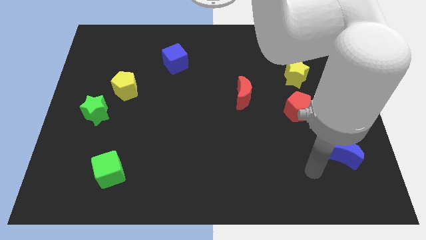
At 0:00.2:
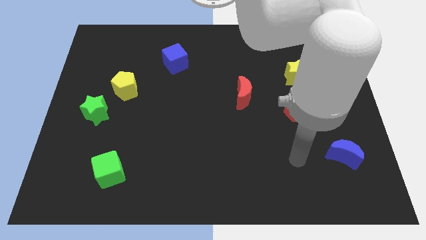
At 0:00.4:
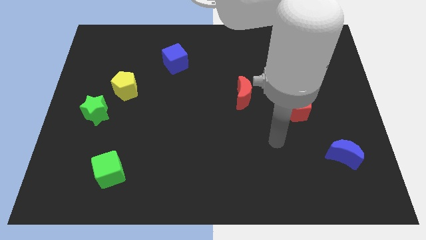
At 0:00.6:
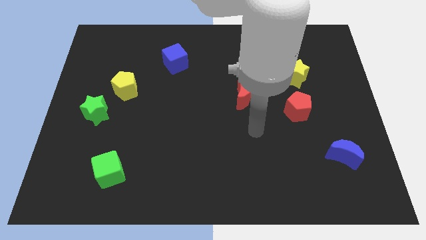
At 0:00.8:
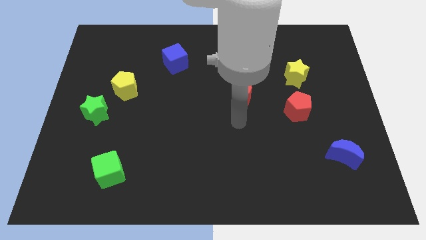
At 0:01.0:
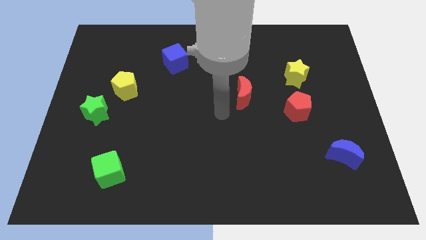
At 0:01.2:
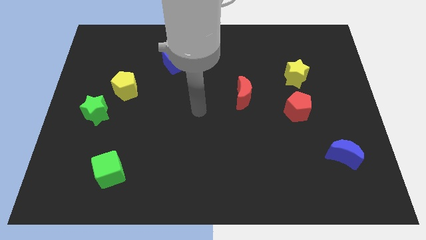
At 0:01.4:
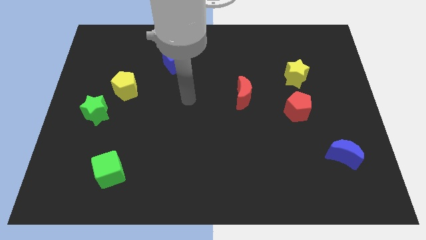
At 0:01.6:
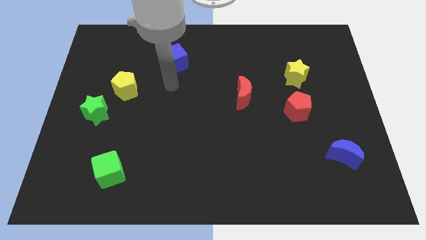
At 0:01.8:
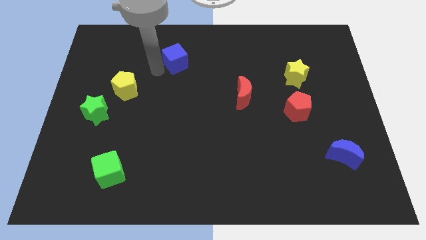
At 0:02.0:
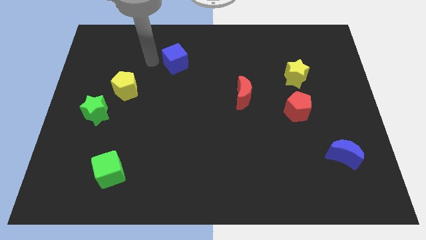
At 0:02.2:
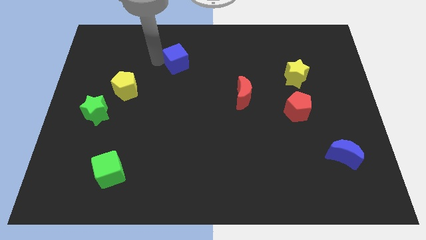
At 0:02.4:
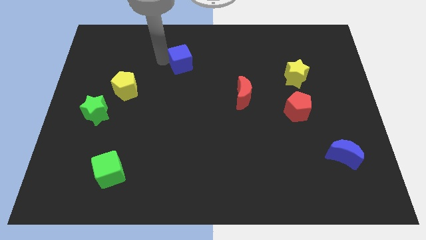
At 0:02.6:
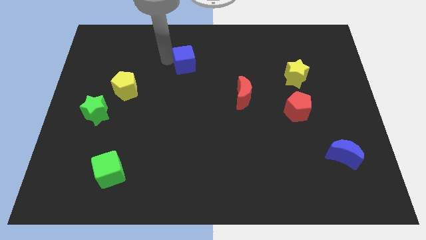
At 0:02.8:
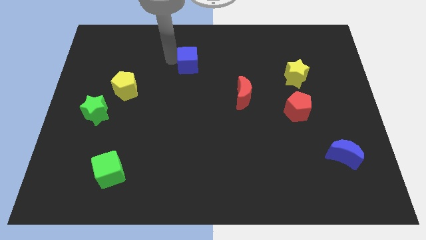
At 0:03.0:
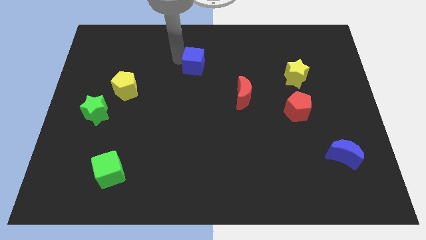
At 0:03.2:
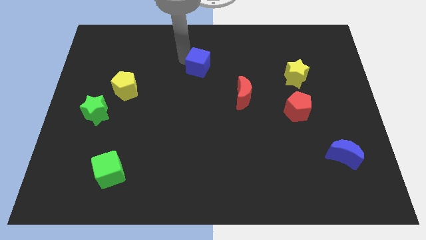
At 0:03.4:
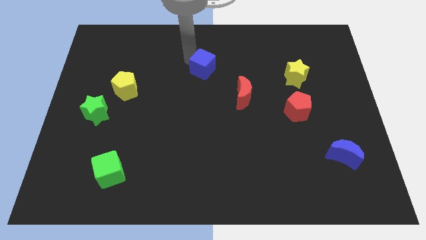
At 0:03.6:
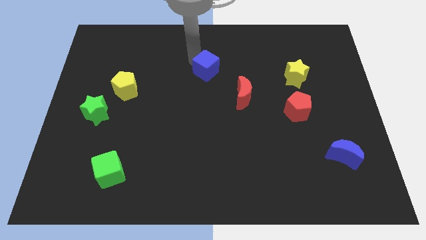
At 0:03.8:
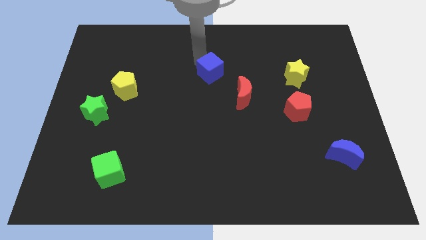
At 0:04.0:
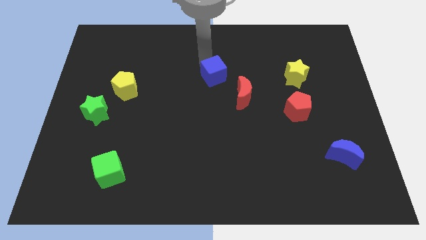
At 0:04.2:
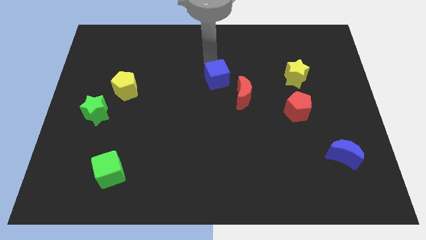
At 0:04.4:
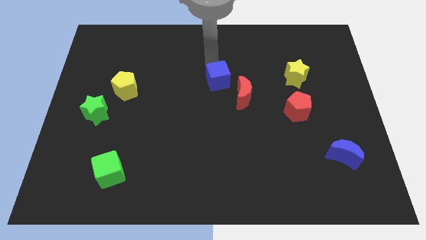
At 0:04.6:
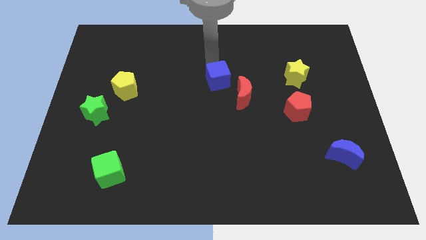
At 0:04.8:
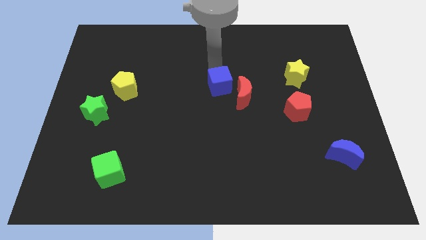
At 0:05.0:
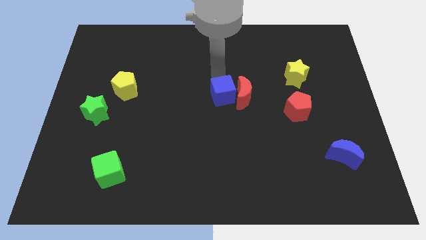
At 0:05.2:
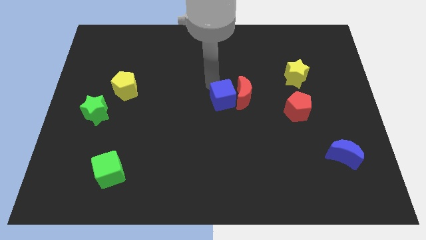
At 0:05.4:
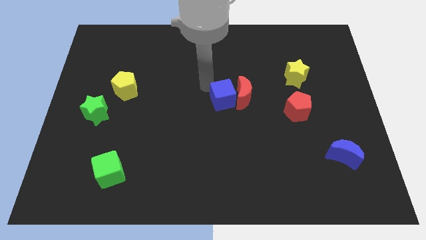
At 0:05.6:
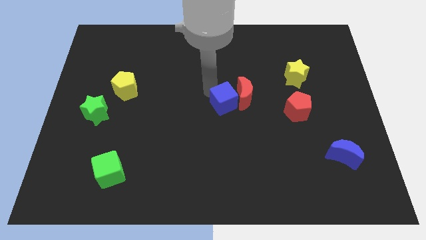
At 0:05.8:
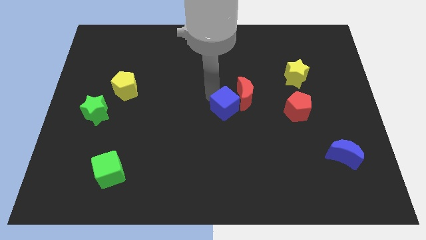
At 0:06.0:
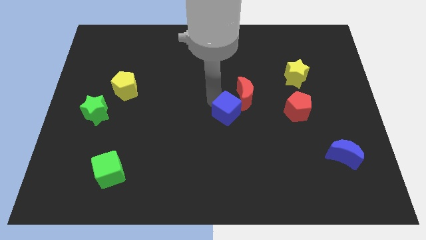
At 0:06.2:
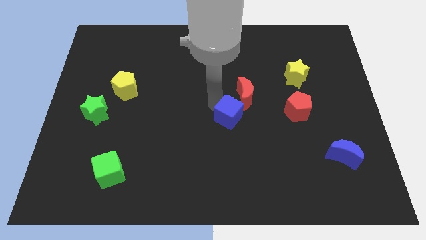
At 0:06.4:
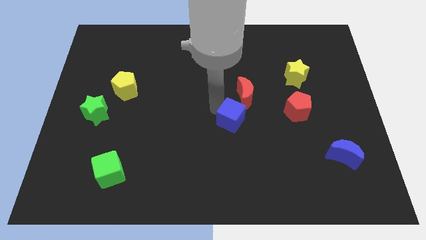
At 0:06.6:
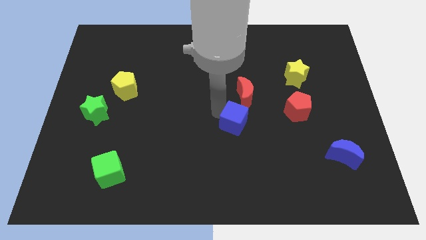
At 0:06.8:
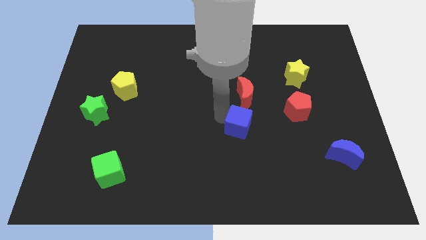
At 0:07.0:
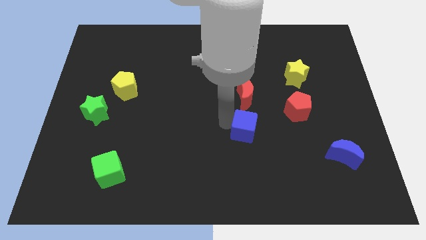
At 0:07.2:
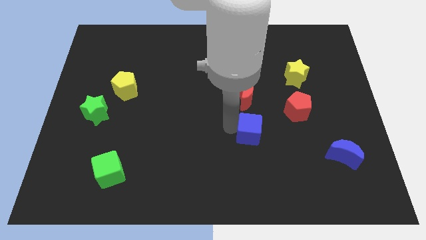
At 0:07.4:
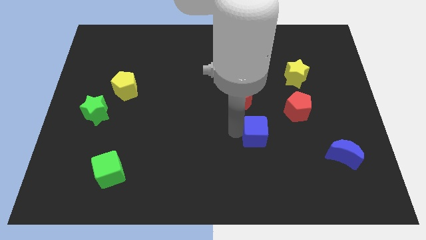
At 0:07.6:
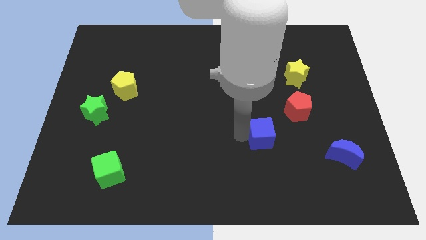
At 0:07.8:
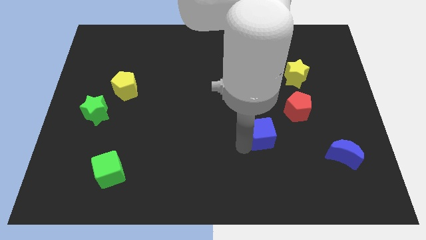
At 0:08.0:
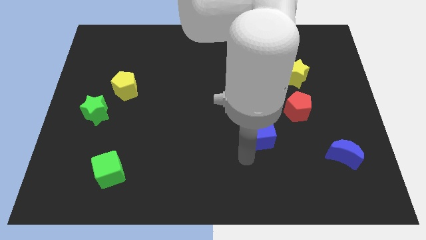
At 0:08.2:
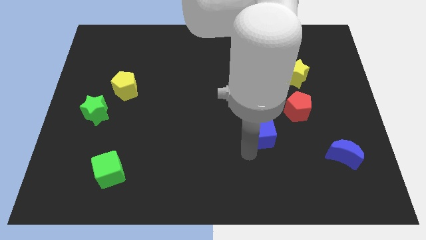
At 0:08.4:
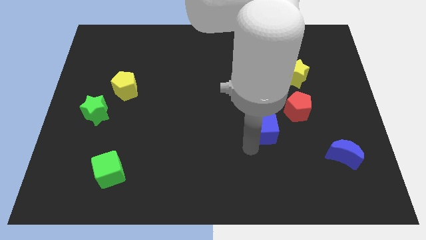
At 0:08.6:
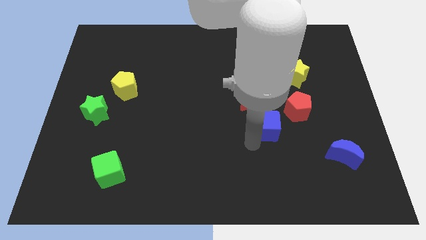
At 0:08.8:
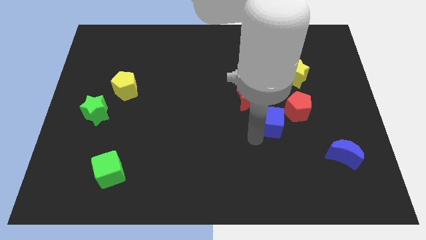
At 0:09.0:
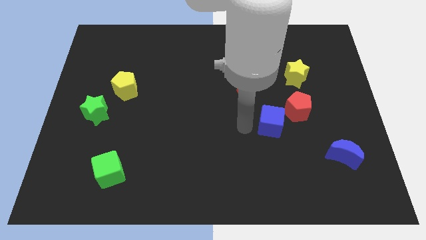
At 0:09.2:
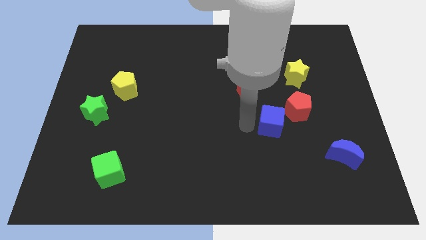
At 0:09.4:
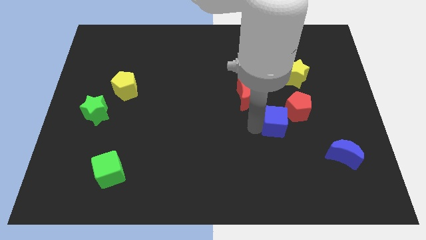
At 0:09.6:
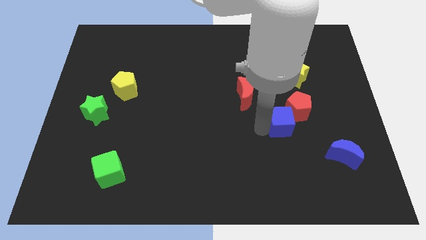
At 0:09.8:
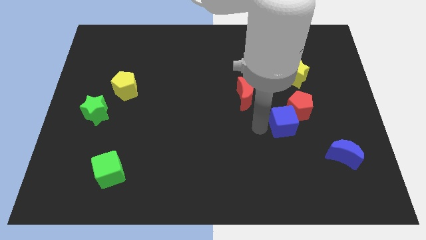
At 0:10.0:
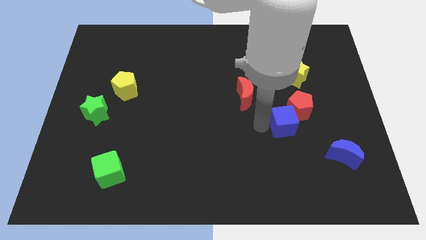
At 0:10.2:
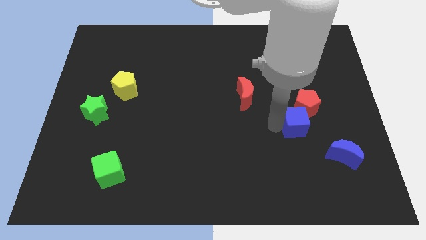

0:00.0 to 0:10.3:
put the blue cube to the bottom of the yellow star

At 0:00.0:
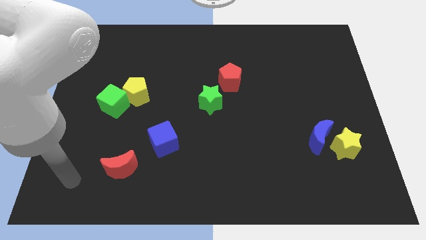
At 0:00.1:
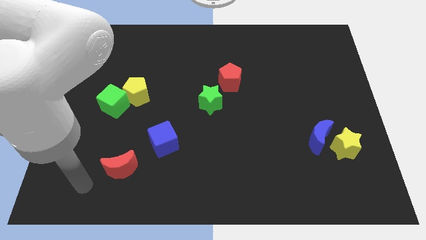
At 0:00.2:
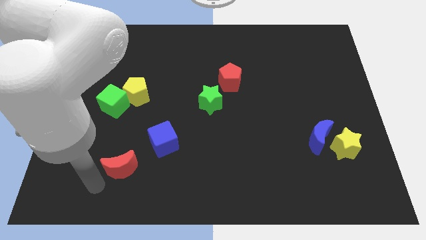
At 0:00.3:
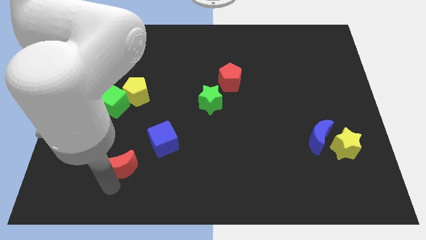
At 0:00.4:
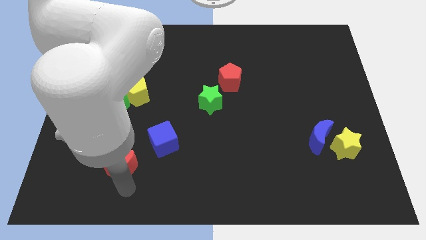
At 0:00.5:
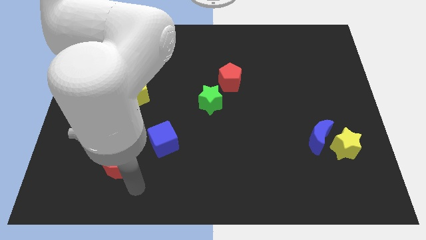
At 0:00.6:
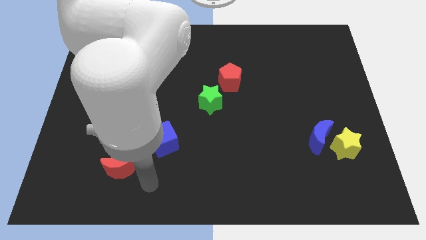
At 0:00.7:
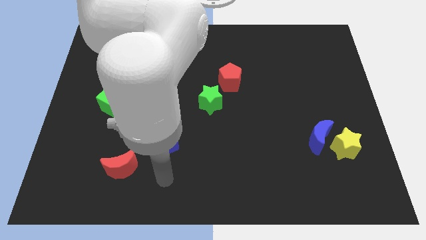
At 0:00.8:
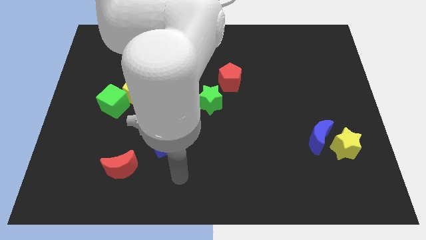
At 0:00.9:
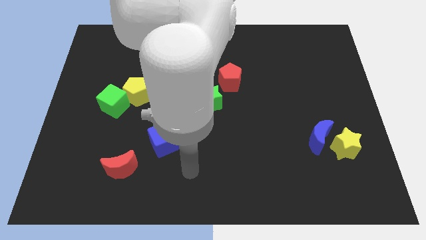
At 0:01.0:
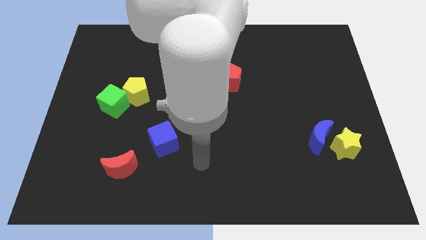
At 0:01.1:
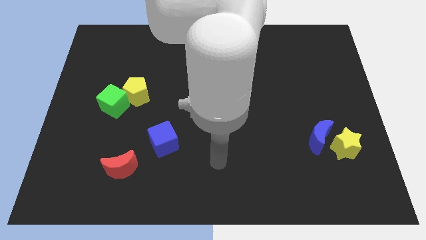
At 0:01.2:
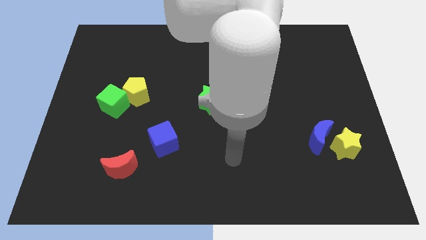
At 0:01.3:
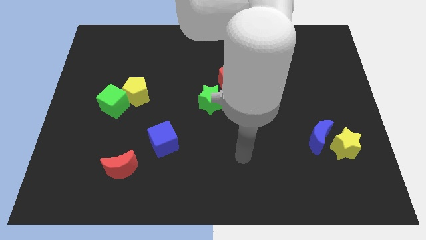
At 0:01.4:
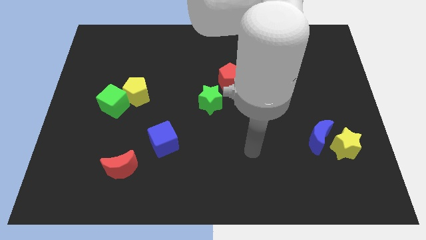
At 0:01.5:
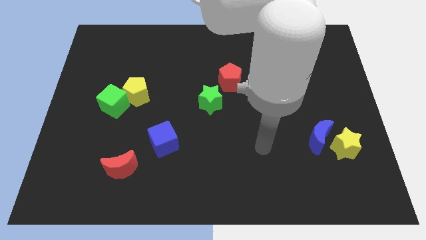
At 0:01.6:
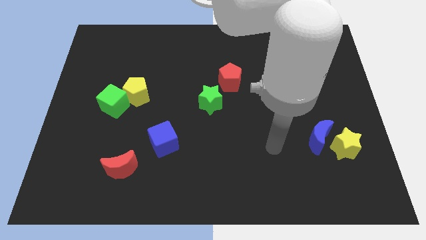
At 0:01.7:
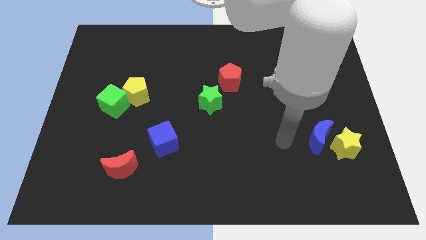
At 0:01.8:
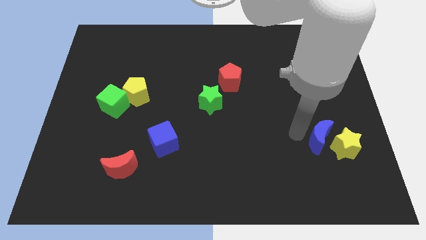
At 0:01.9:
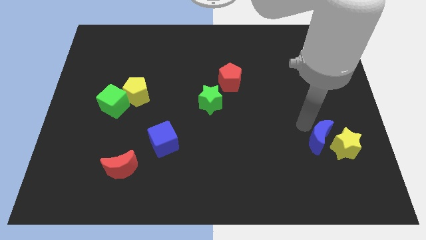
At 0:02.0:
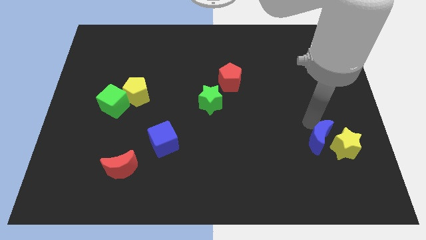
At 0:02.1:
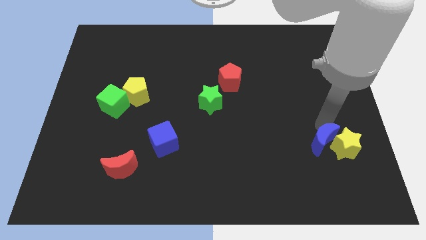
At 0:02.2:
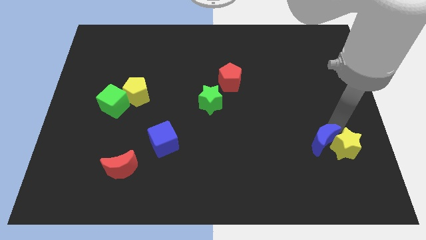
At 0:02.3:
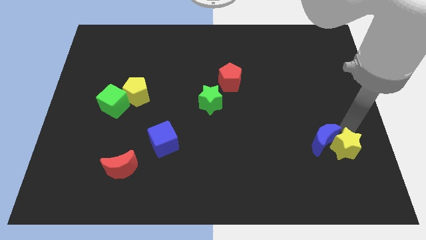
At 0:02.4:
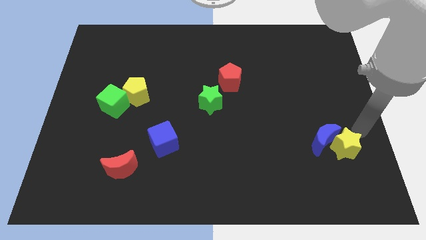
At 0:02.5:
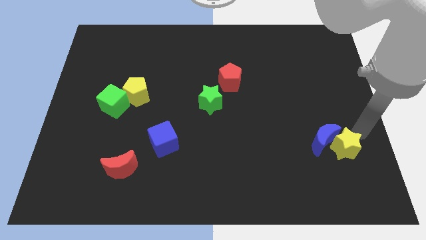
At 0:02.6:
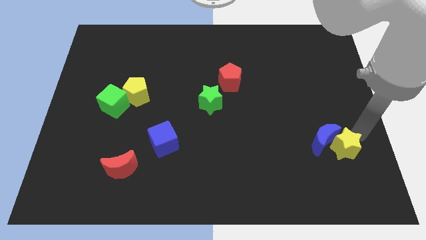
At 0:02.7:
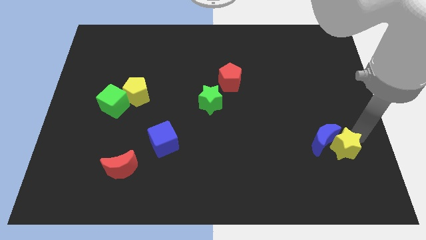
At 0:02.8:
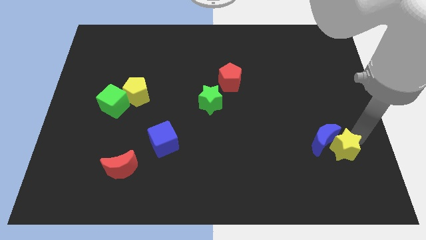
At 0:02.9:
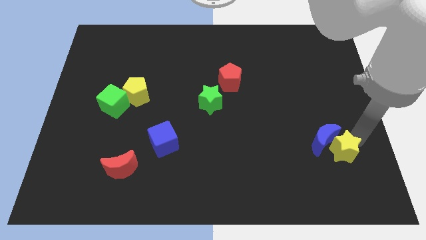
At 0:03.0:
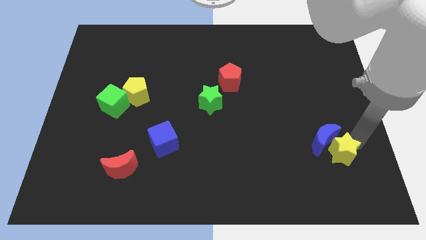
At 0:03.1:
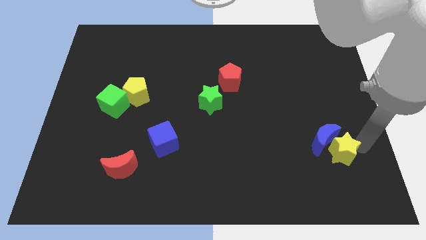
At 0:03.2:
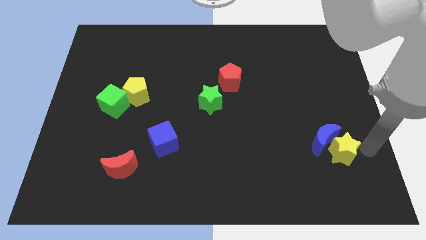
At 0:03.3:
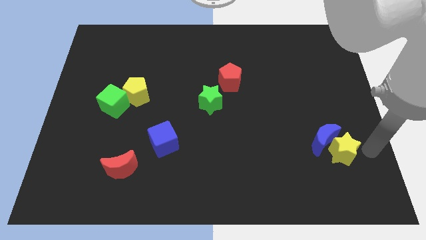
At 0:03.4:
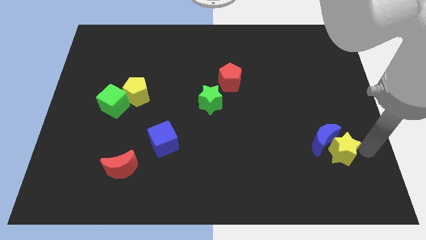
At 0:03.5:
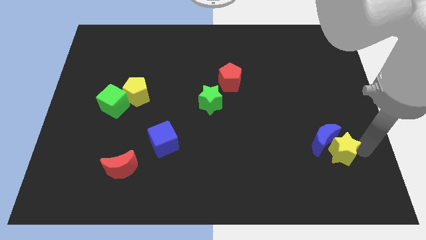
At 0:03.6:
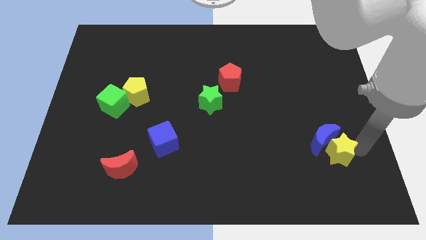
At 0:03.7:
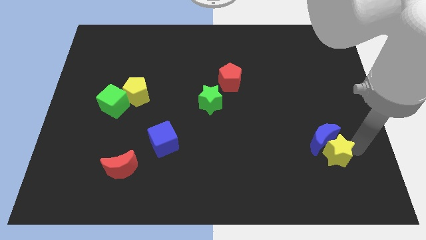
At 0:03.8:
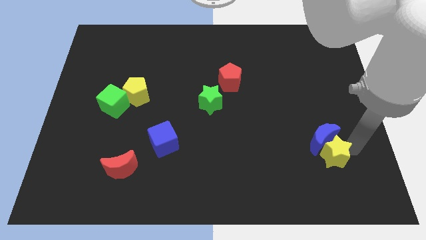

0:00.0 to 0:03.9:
slide the yellow star to the bottom left of the blue moon
